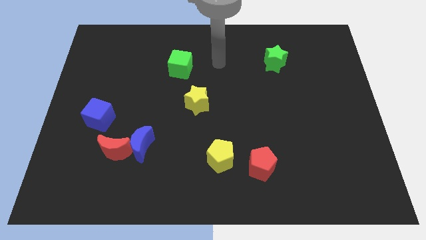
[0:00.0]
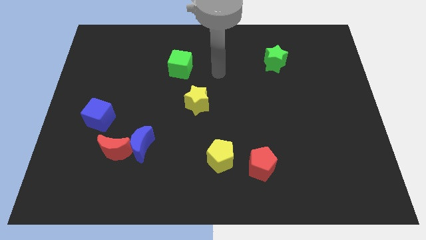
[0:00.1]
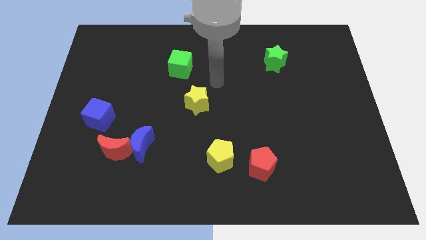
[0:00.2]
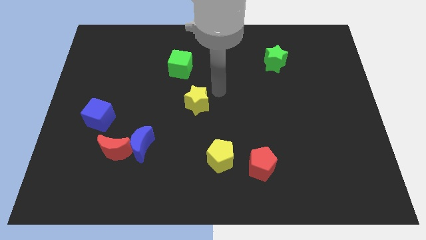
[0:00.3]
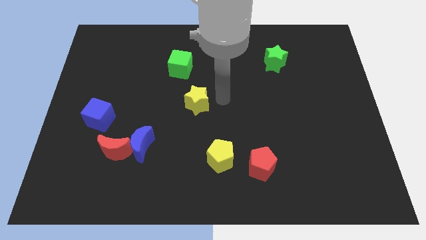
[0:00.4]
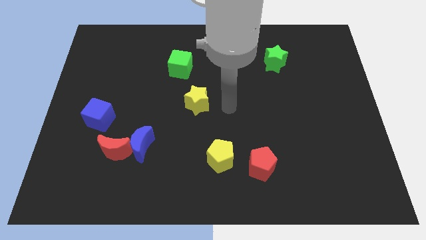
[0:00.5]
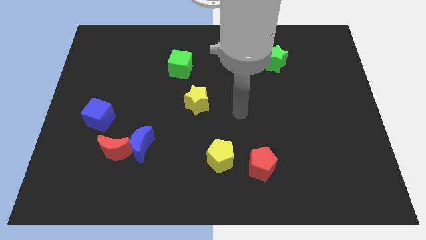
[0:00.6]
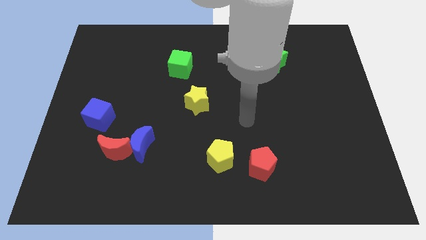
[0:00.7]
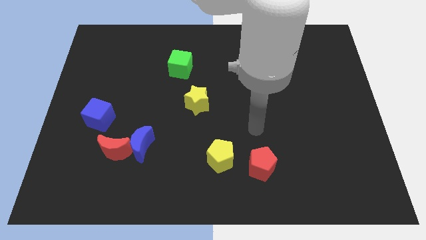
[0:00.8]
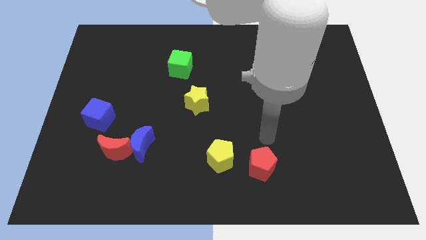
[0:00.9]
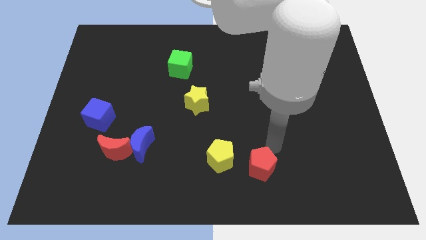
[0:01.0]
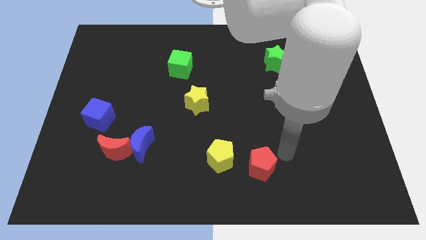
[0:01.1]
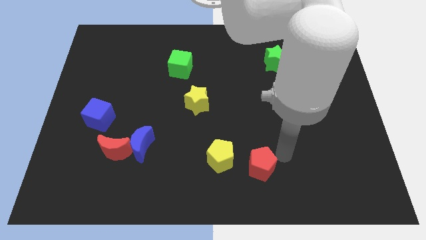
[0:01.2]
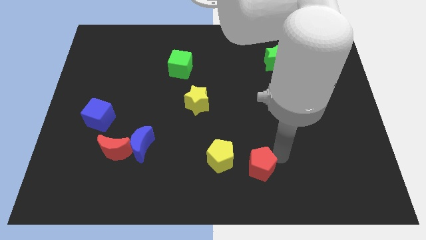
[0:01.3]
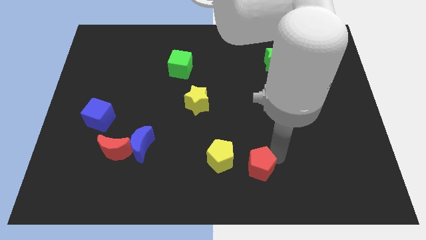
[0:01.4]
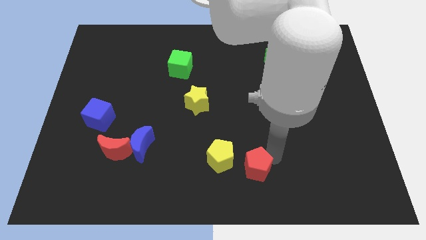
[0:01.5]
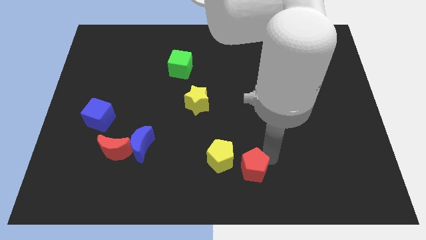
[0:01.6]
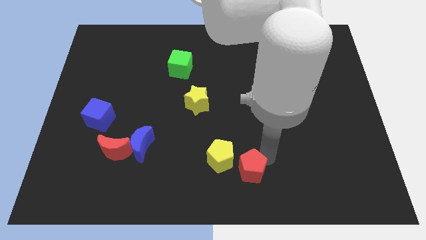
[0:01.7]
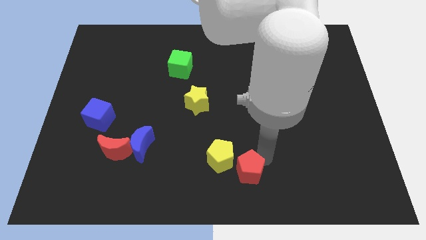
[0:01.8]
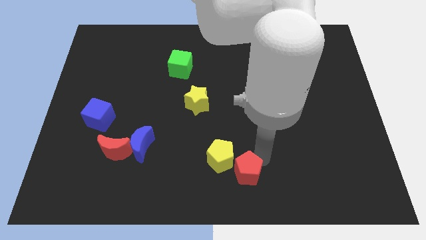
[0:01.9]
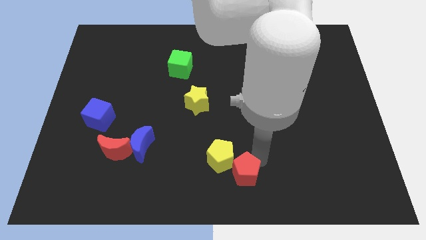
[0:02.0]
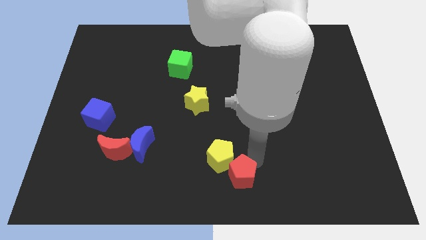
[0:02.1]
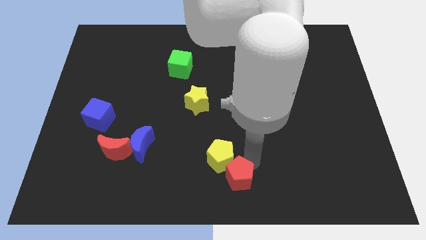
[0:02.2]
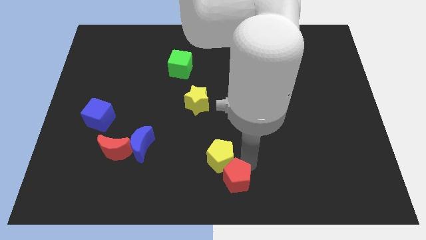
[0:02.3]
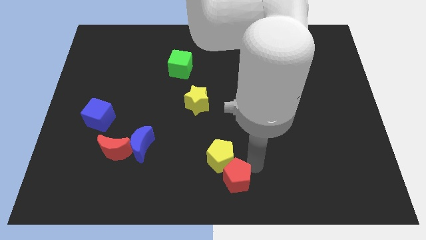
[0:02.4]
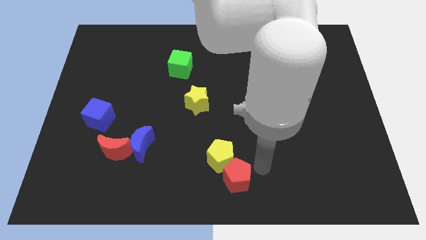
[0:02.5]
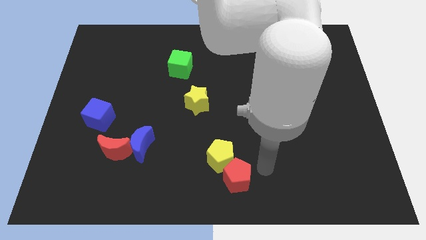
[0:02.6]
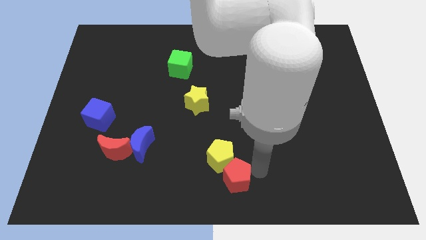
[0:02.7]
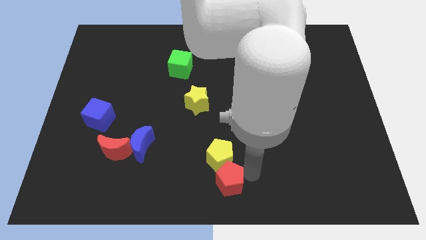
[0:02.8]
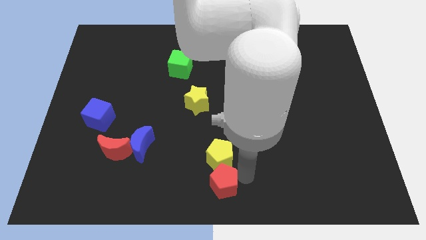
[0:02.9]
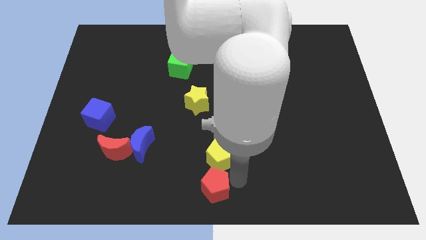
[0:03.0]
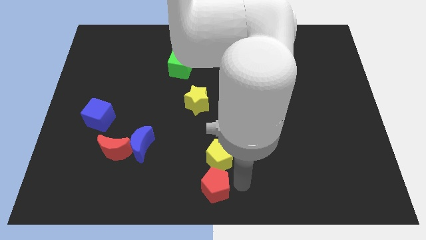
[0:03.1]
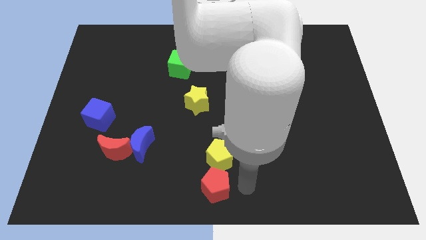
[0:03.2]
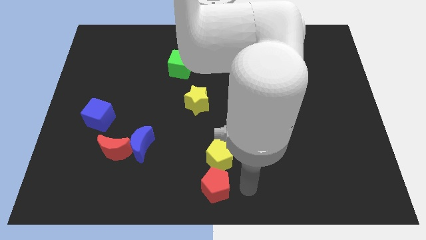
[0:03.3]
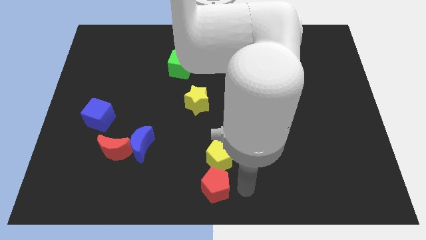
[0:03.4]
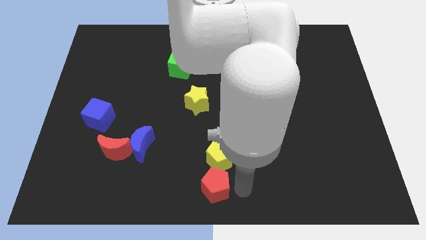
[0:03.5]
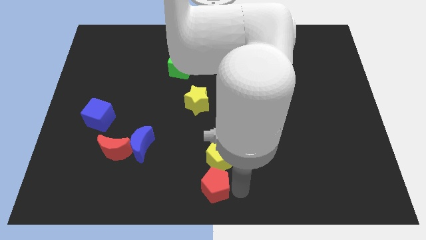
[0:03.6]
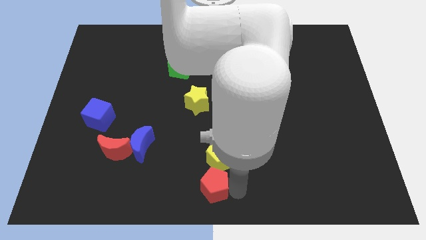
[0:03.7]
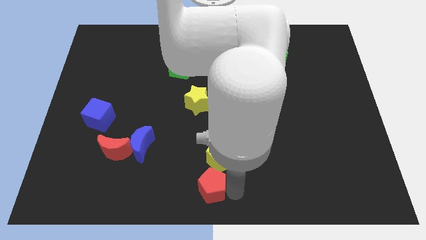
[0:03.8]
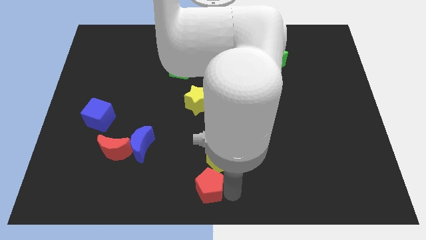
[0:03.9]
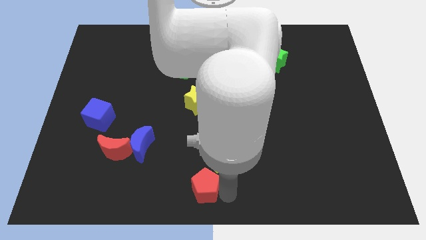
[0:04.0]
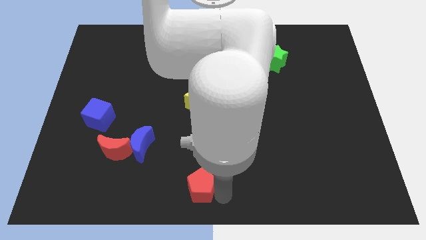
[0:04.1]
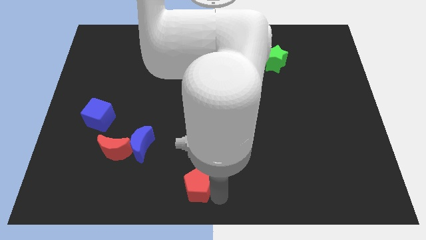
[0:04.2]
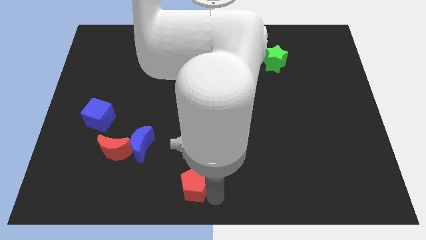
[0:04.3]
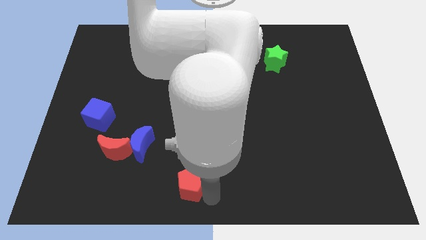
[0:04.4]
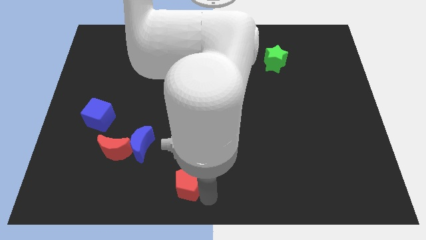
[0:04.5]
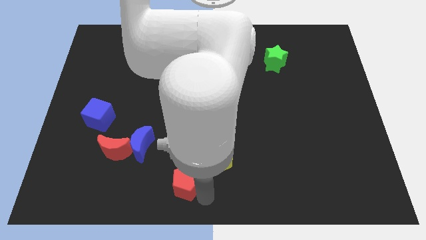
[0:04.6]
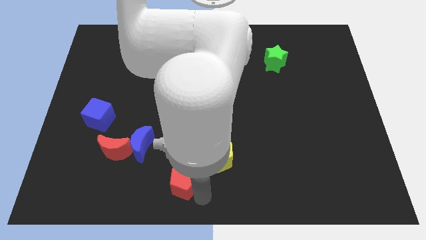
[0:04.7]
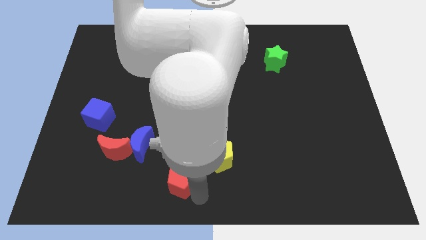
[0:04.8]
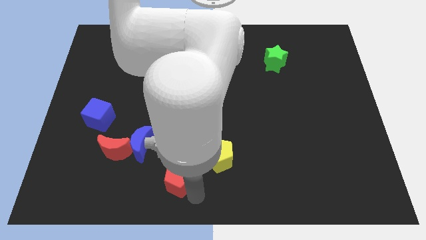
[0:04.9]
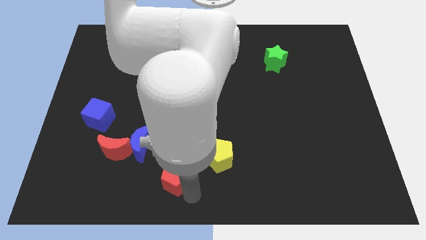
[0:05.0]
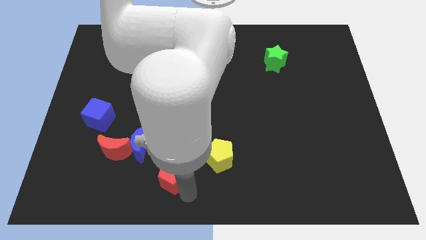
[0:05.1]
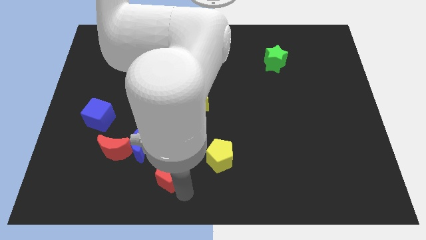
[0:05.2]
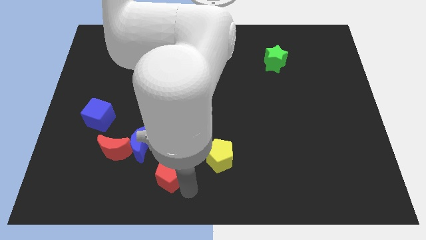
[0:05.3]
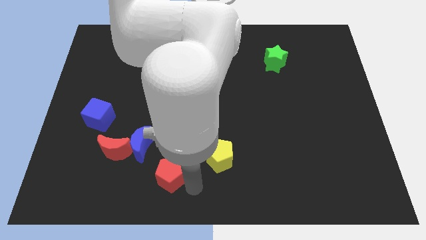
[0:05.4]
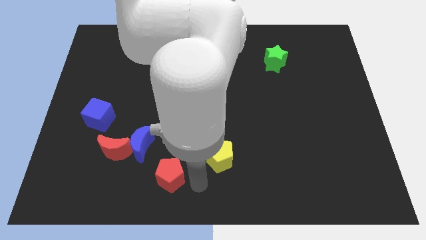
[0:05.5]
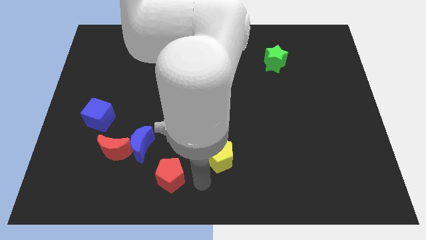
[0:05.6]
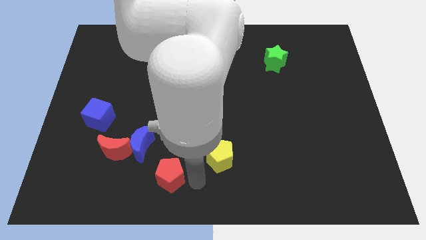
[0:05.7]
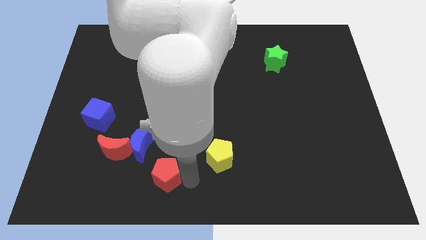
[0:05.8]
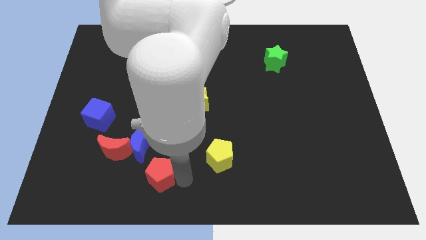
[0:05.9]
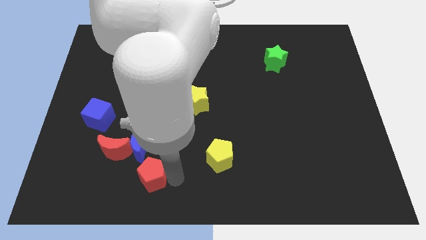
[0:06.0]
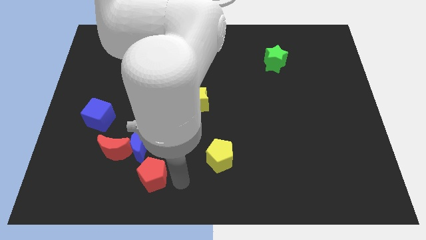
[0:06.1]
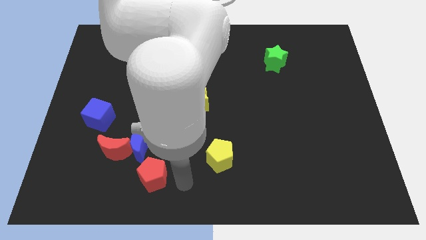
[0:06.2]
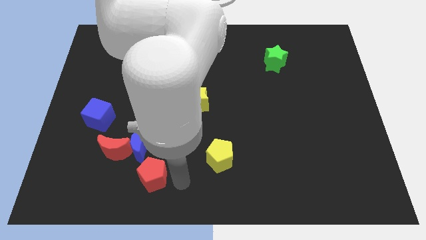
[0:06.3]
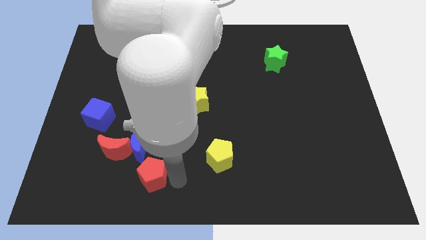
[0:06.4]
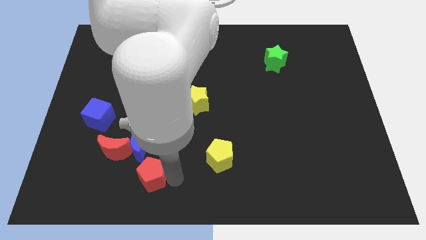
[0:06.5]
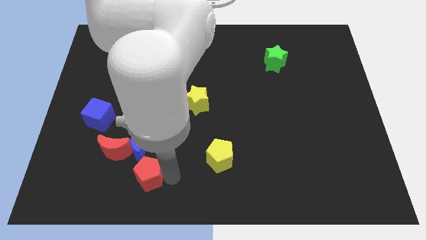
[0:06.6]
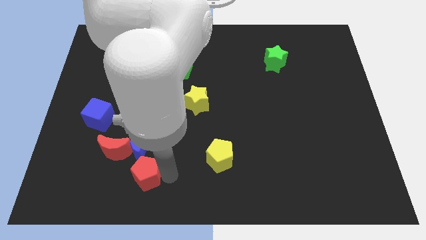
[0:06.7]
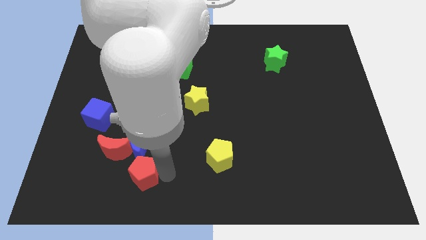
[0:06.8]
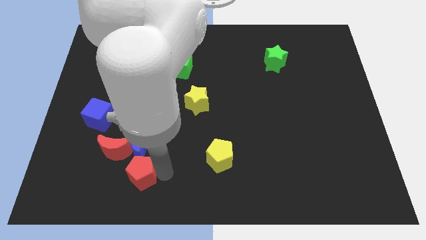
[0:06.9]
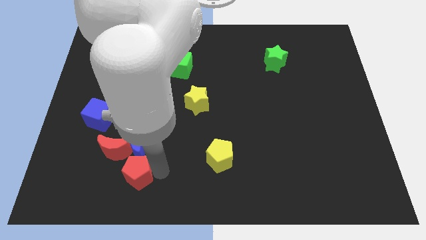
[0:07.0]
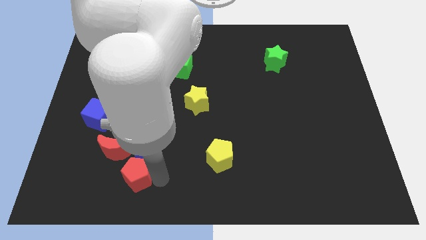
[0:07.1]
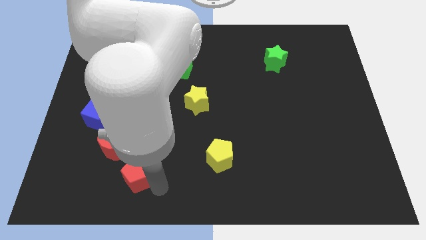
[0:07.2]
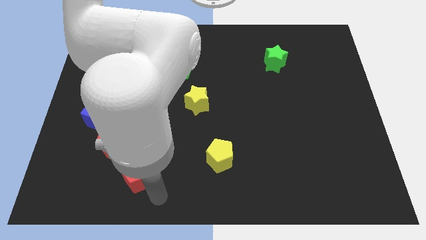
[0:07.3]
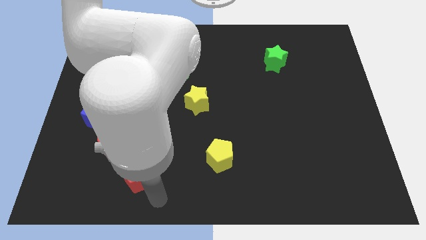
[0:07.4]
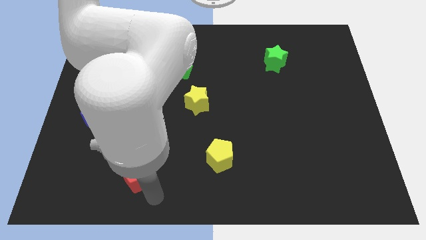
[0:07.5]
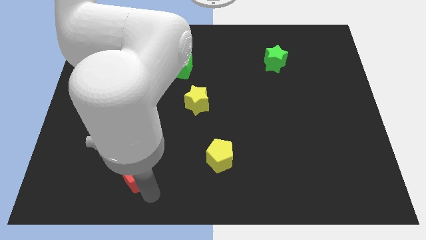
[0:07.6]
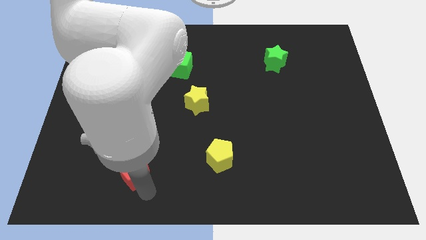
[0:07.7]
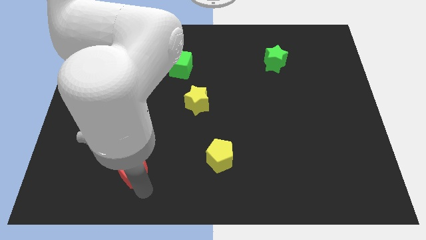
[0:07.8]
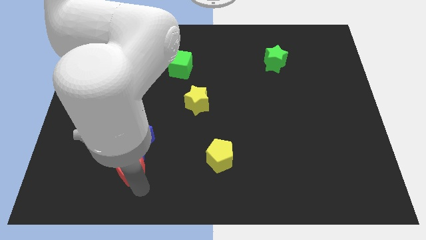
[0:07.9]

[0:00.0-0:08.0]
move the red pentagon next to the red moon
